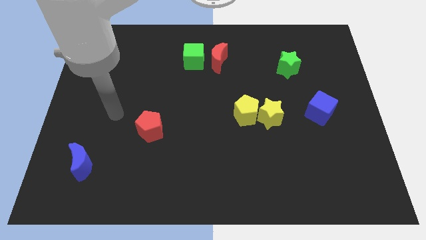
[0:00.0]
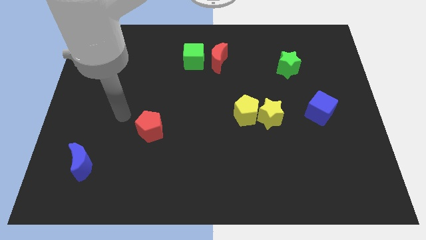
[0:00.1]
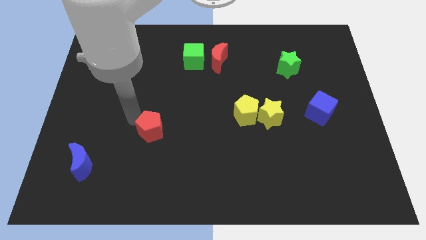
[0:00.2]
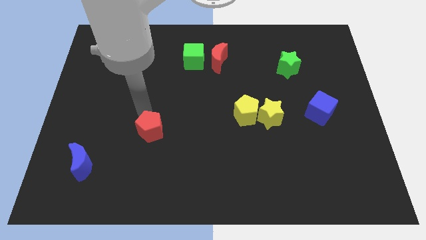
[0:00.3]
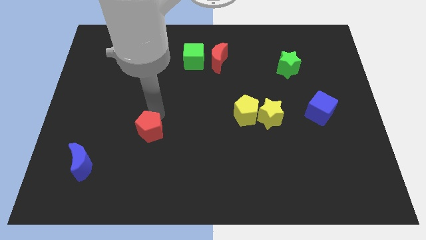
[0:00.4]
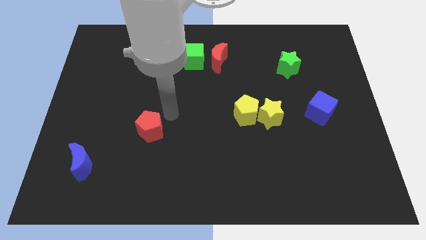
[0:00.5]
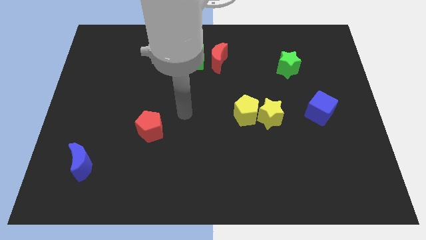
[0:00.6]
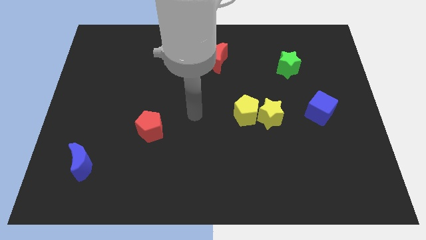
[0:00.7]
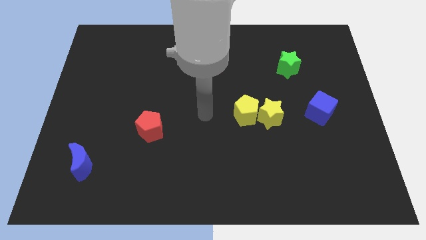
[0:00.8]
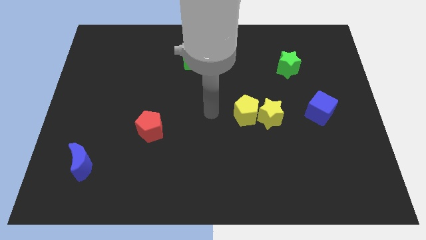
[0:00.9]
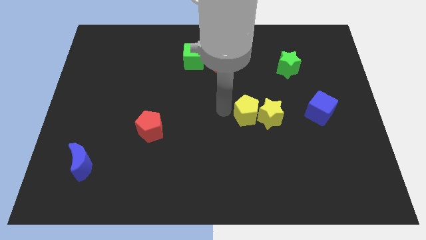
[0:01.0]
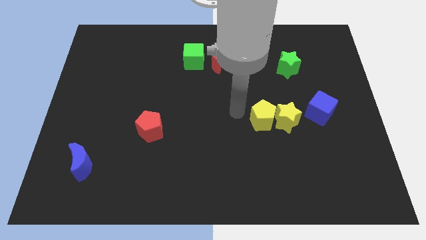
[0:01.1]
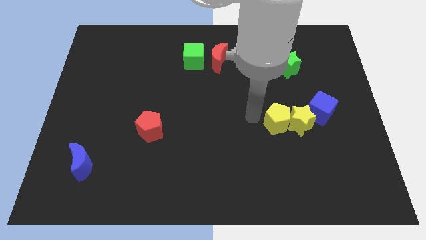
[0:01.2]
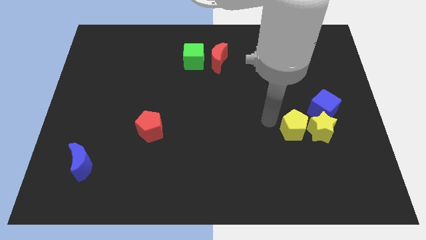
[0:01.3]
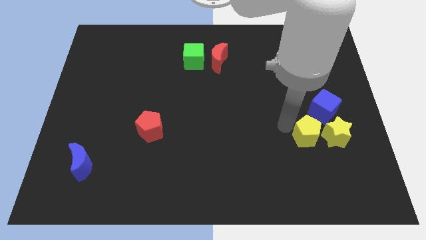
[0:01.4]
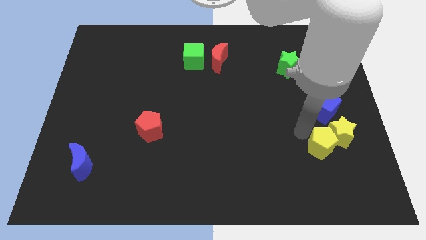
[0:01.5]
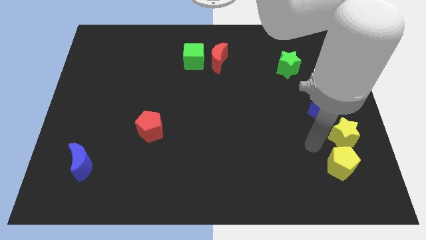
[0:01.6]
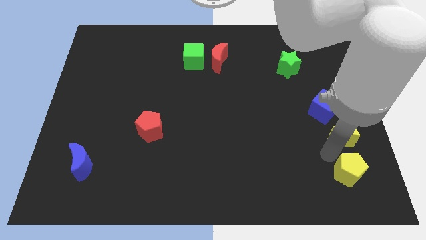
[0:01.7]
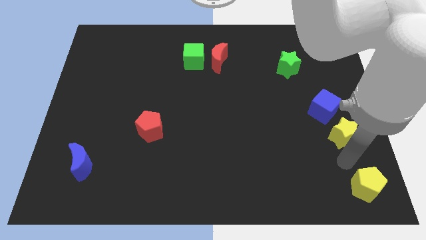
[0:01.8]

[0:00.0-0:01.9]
move the yellow star away from the yellow pentagon

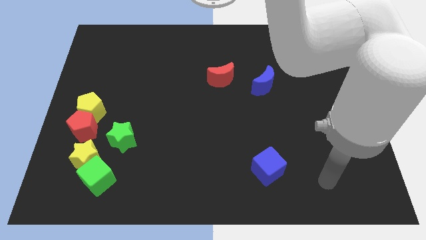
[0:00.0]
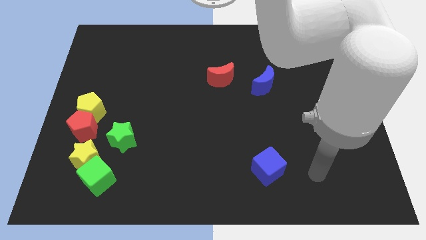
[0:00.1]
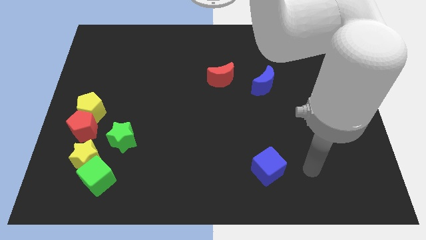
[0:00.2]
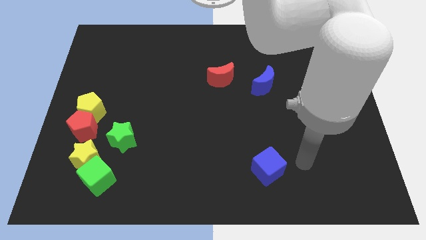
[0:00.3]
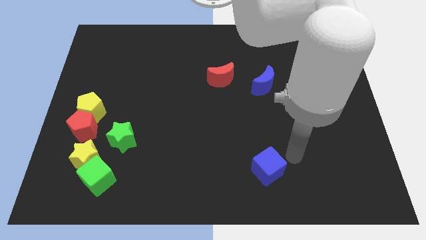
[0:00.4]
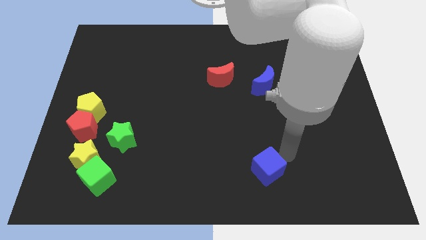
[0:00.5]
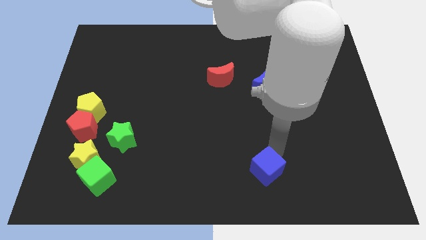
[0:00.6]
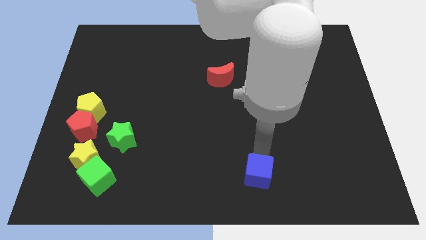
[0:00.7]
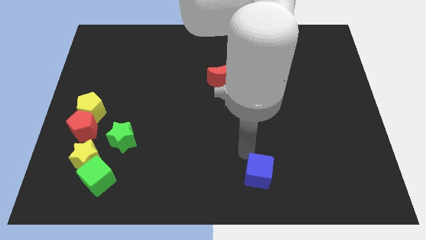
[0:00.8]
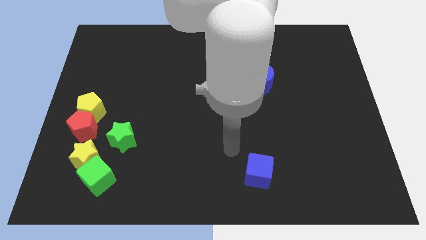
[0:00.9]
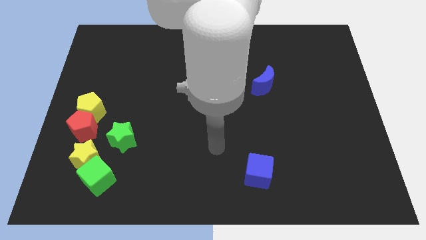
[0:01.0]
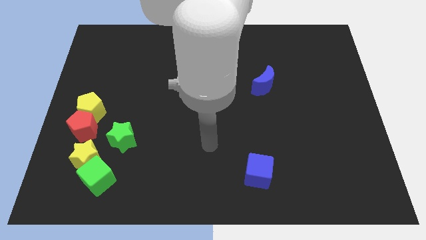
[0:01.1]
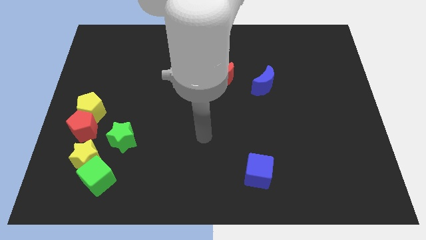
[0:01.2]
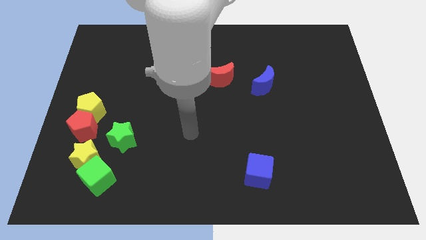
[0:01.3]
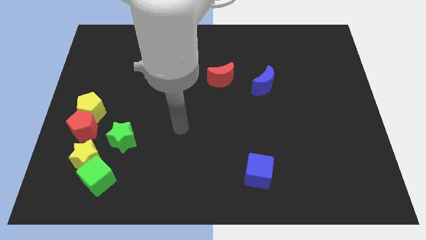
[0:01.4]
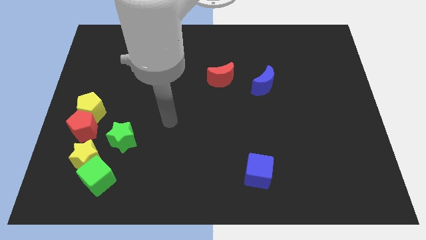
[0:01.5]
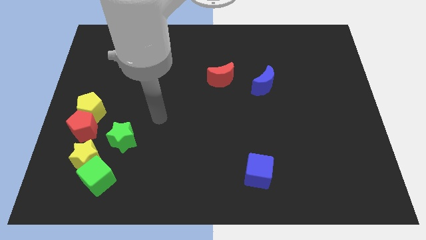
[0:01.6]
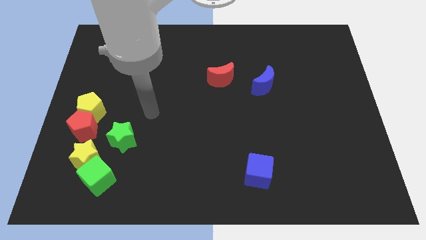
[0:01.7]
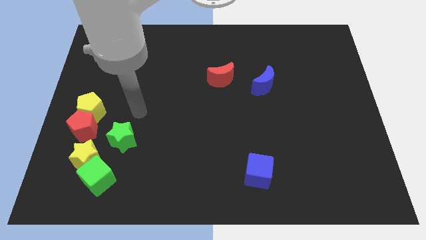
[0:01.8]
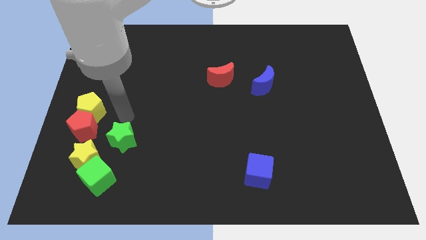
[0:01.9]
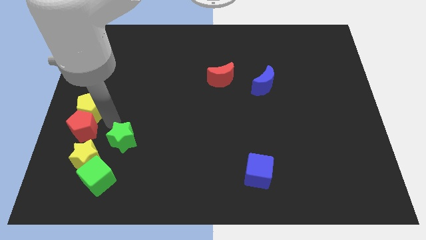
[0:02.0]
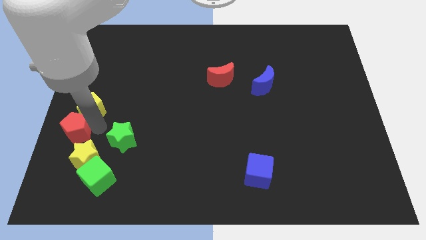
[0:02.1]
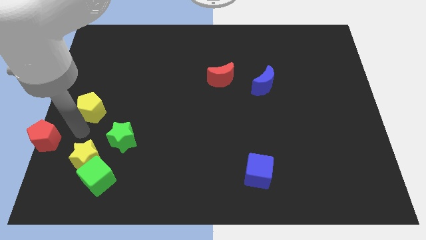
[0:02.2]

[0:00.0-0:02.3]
move the yellow pentagon away from the red pentagon

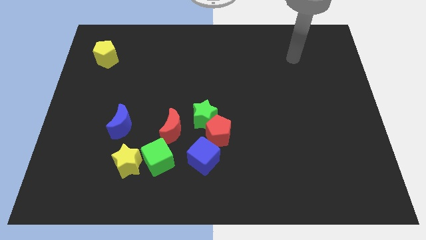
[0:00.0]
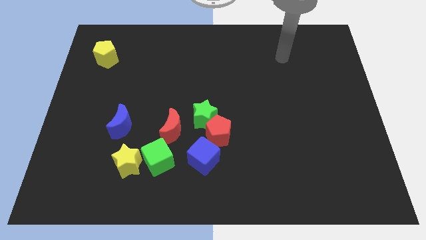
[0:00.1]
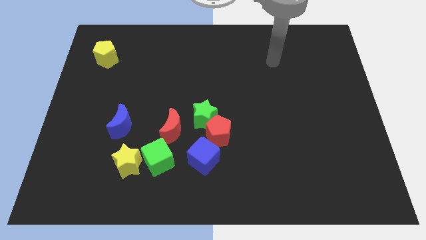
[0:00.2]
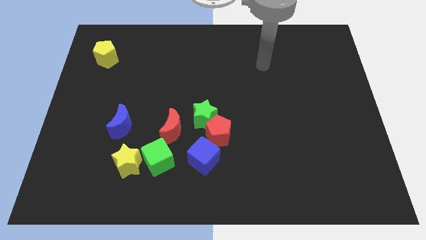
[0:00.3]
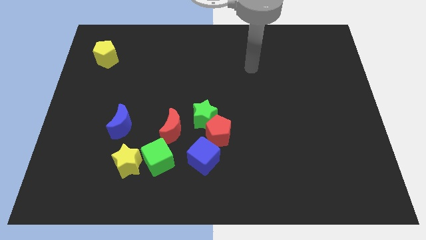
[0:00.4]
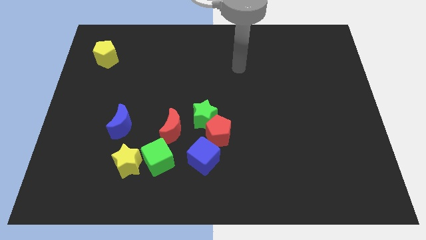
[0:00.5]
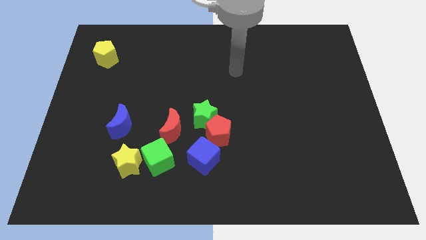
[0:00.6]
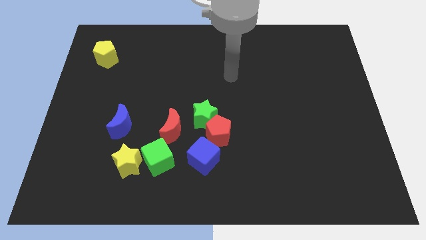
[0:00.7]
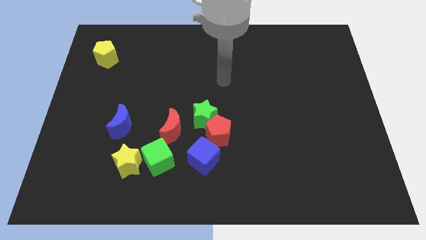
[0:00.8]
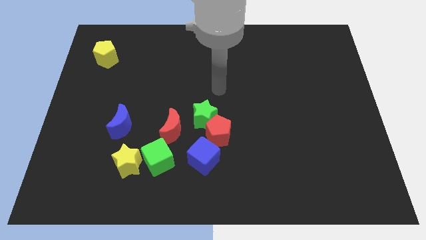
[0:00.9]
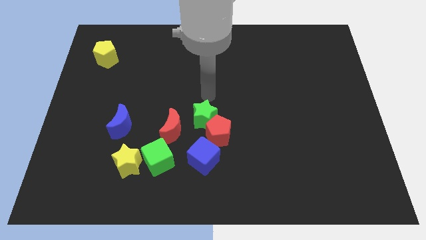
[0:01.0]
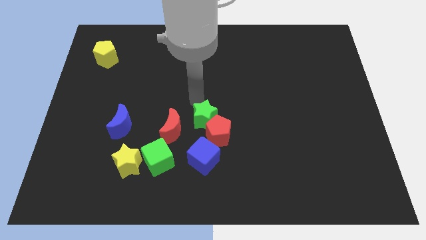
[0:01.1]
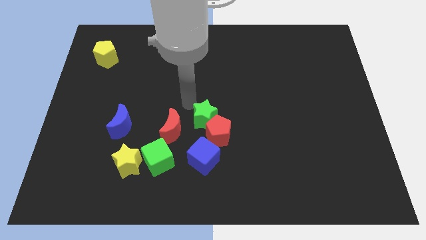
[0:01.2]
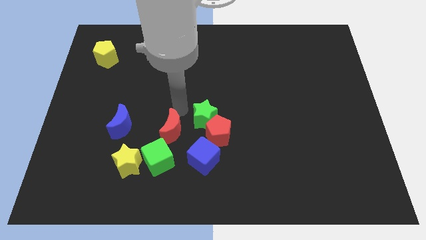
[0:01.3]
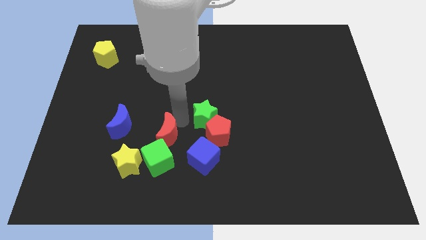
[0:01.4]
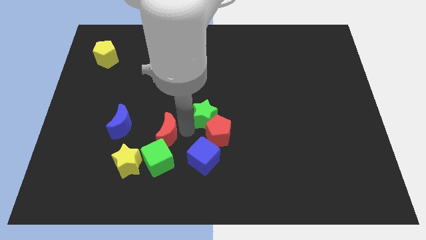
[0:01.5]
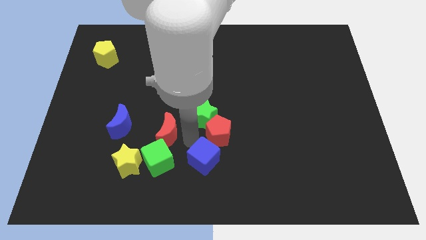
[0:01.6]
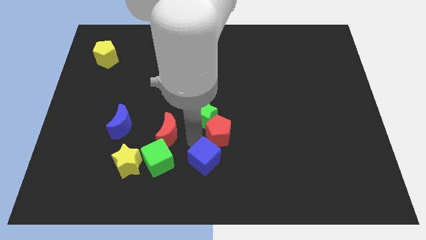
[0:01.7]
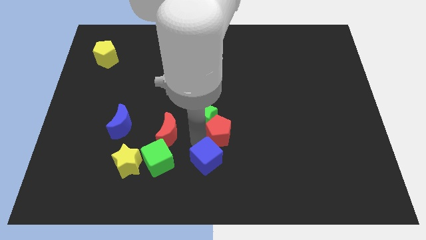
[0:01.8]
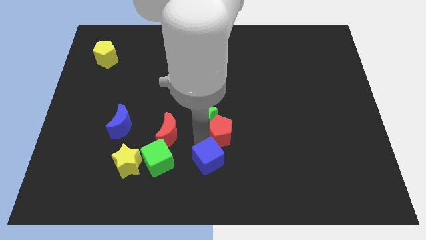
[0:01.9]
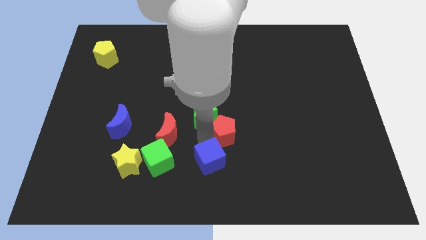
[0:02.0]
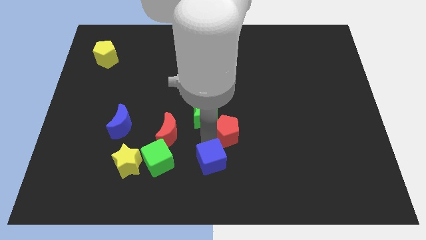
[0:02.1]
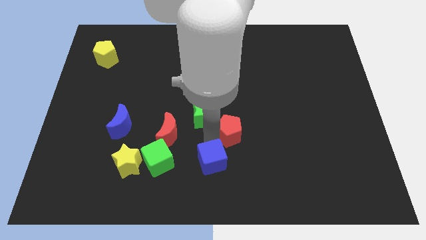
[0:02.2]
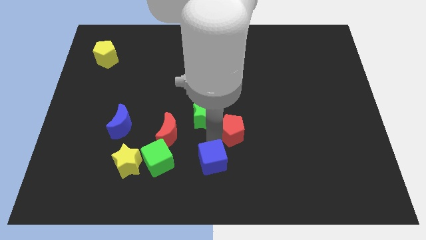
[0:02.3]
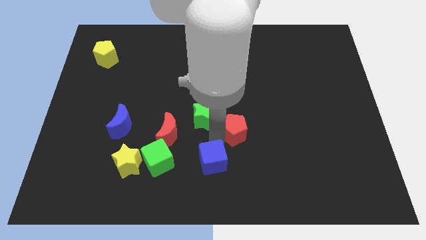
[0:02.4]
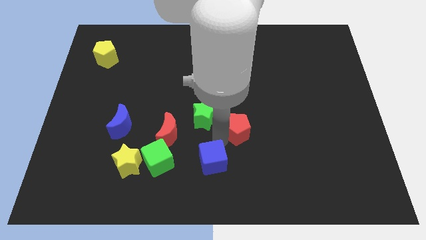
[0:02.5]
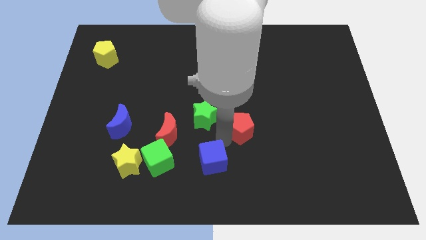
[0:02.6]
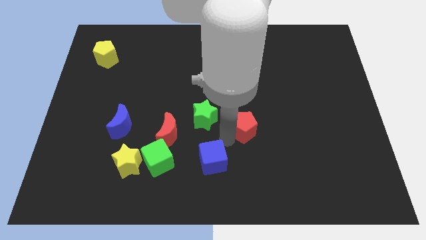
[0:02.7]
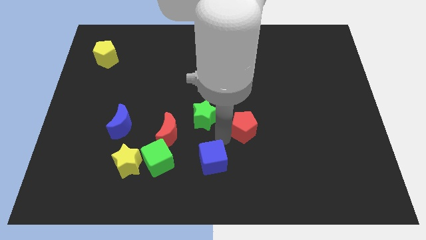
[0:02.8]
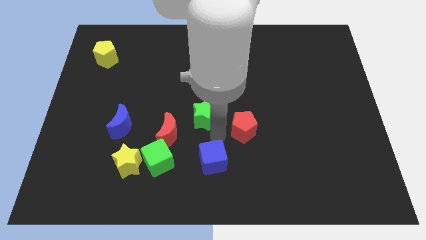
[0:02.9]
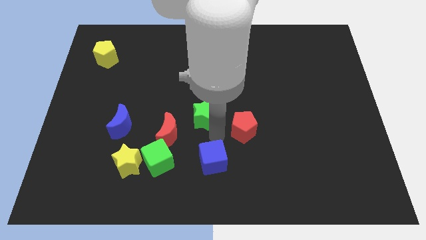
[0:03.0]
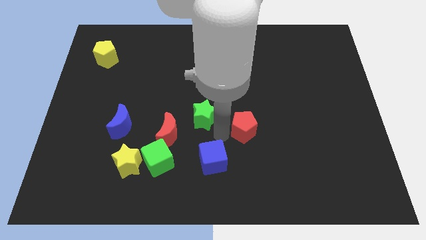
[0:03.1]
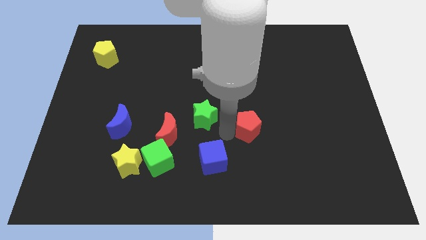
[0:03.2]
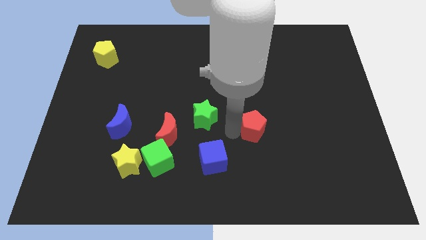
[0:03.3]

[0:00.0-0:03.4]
pull the red pentagon apart from the green star and blue cube

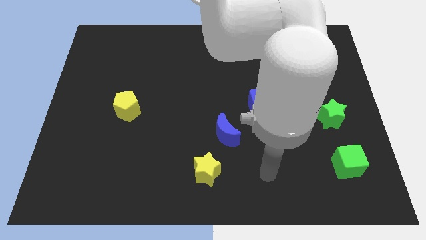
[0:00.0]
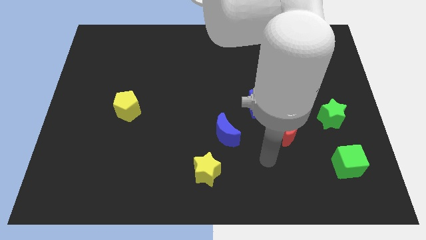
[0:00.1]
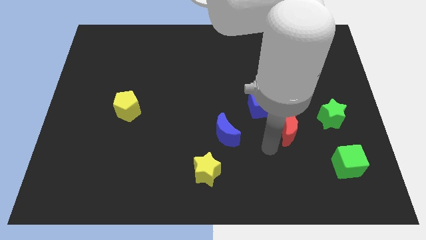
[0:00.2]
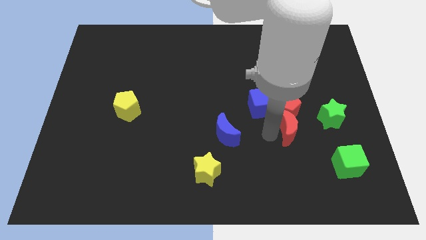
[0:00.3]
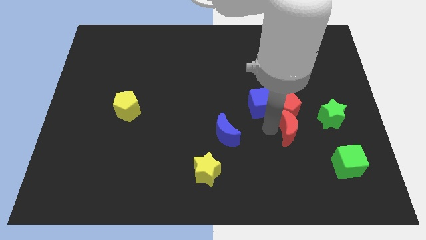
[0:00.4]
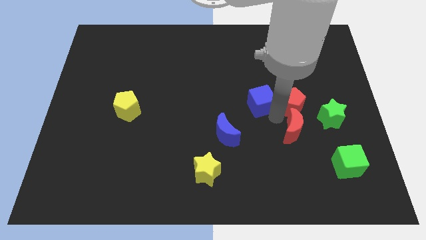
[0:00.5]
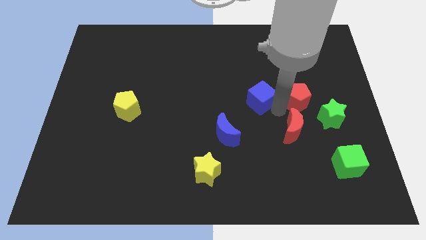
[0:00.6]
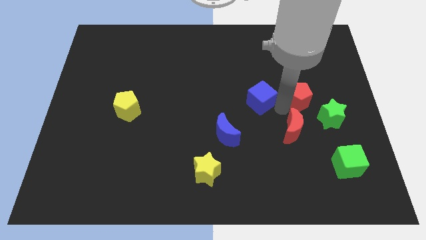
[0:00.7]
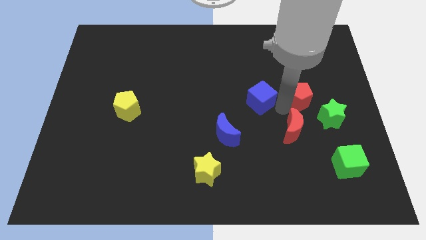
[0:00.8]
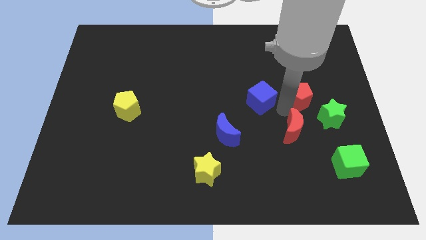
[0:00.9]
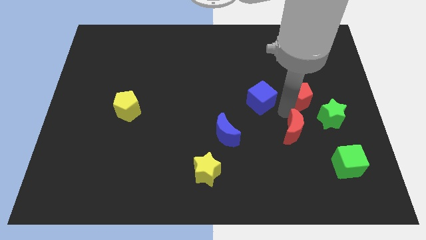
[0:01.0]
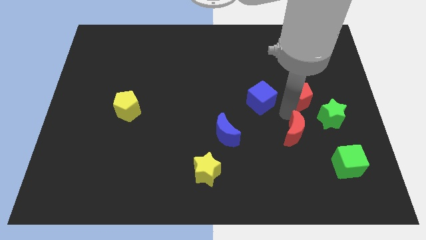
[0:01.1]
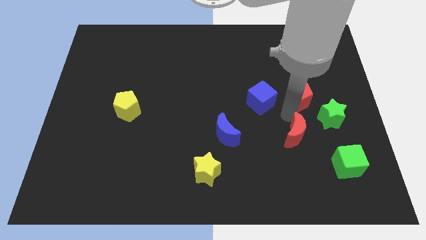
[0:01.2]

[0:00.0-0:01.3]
pull the red moon apart from the red pentagon and blue cube

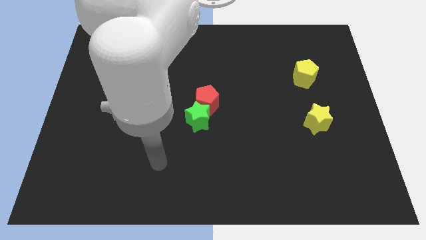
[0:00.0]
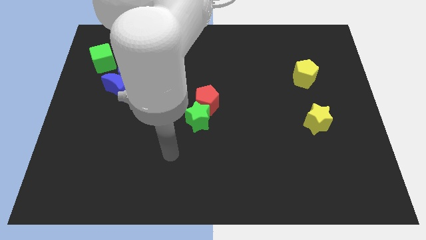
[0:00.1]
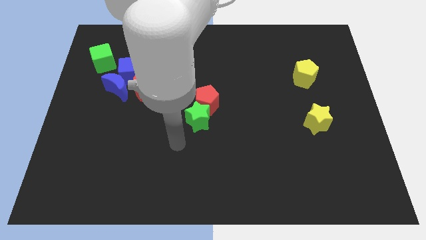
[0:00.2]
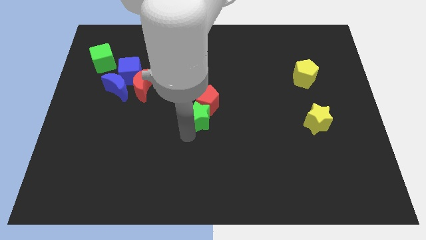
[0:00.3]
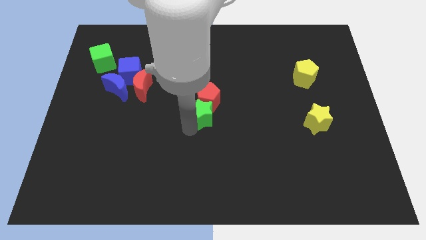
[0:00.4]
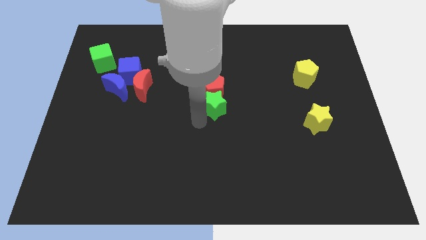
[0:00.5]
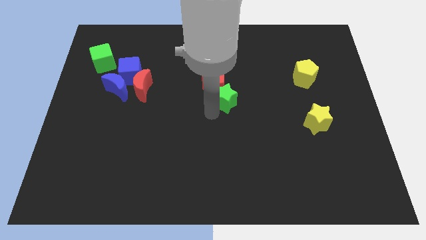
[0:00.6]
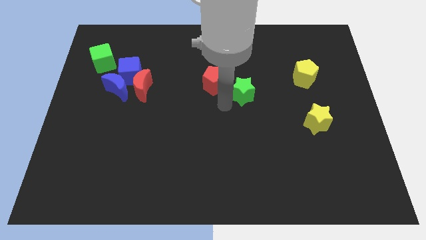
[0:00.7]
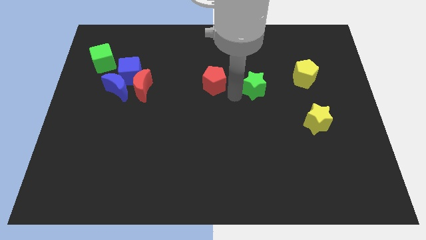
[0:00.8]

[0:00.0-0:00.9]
separate the red pentagon from the green star
